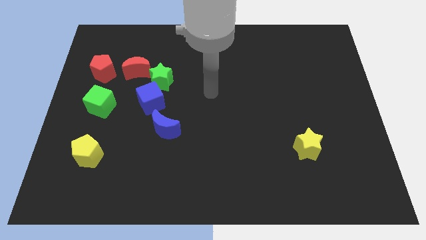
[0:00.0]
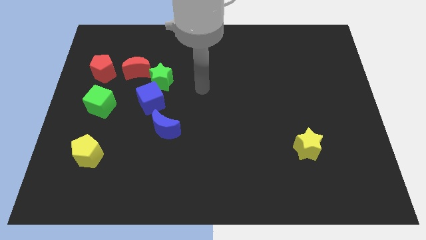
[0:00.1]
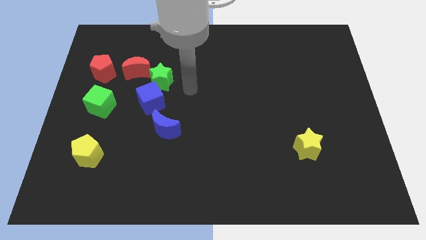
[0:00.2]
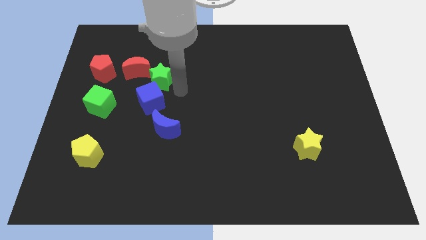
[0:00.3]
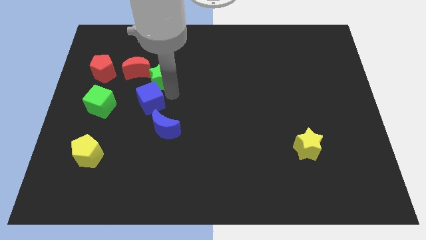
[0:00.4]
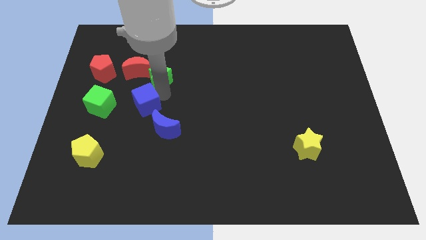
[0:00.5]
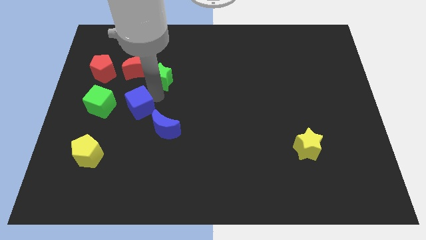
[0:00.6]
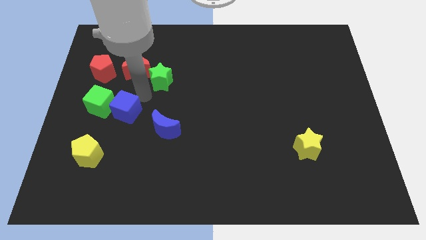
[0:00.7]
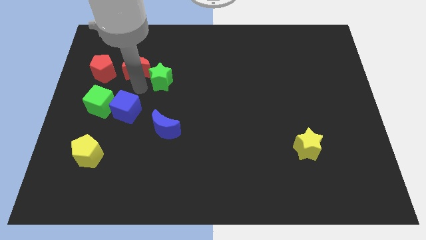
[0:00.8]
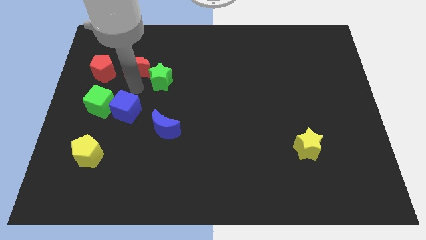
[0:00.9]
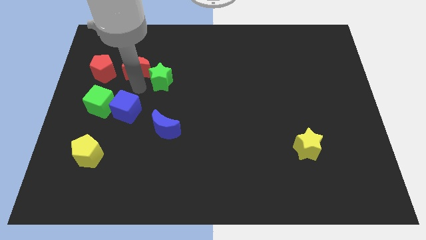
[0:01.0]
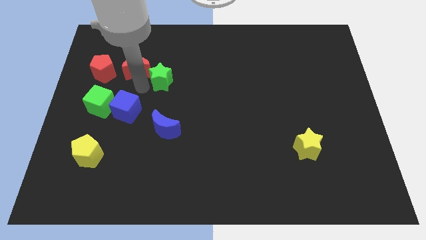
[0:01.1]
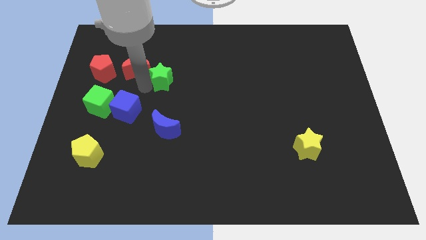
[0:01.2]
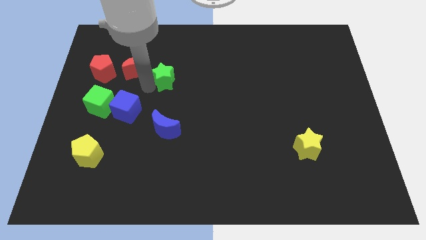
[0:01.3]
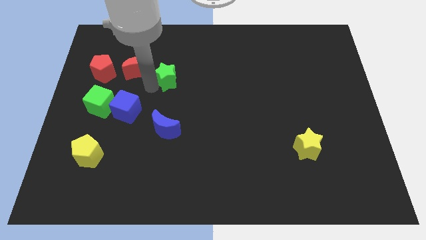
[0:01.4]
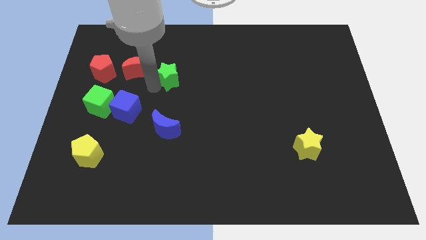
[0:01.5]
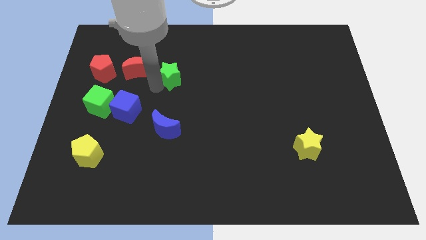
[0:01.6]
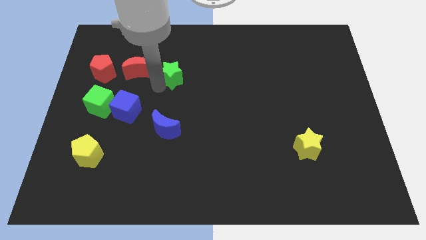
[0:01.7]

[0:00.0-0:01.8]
pull the green star apart from the blue cube and red moon

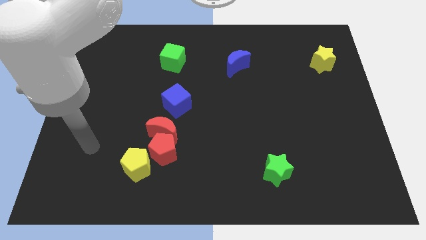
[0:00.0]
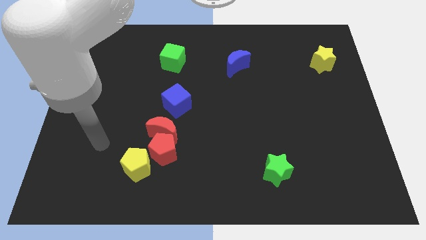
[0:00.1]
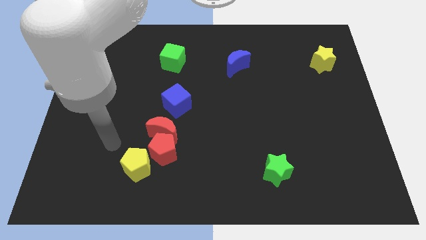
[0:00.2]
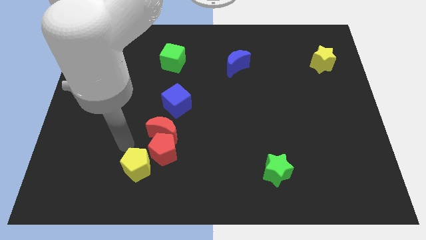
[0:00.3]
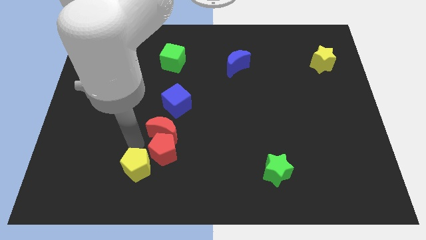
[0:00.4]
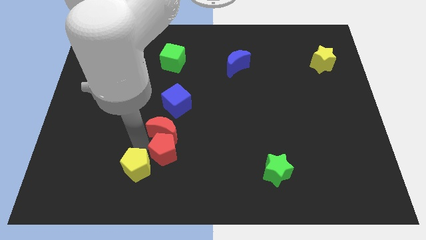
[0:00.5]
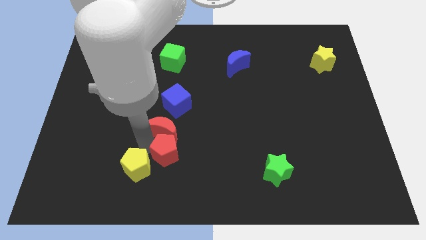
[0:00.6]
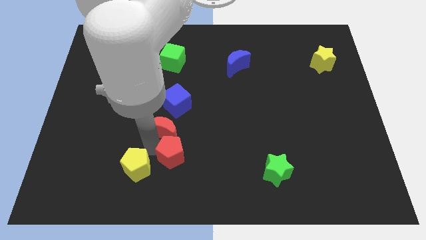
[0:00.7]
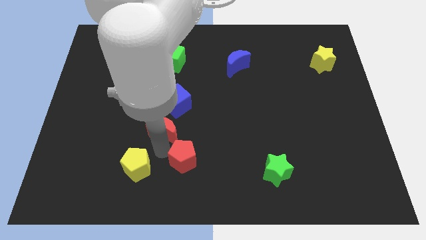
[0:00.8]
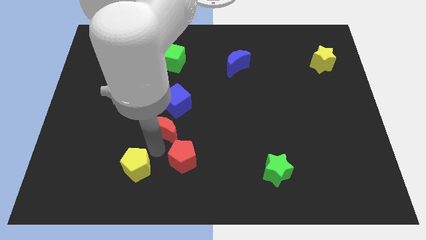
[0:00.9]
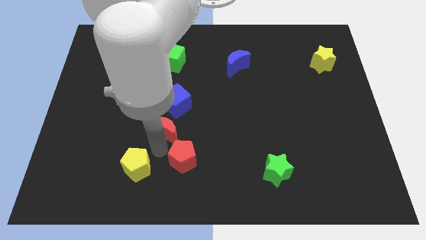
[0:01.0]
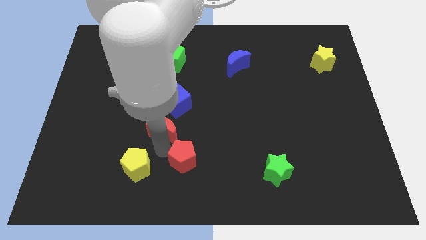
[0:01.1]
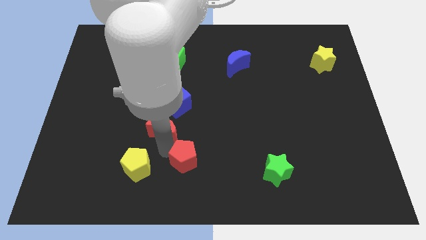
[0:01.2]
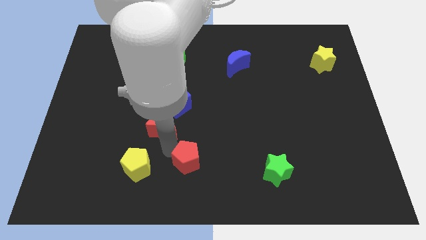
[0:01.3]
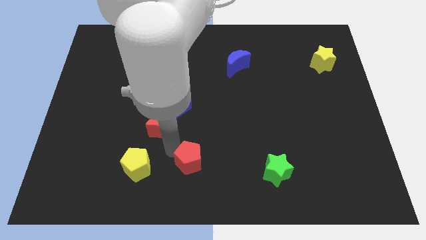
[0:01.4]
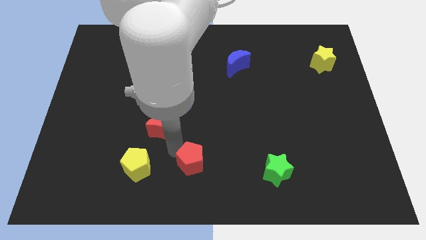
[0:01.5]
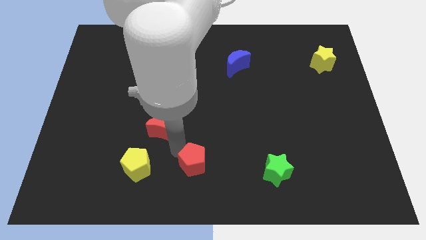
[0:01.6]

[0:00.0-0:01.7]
pull the red pentagon apart from the red moon and yellow pentagon

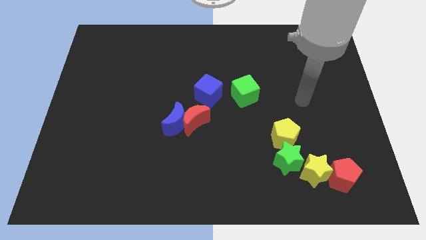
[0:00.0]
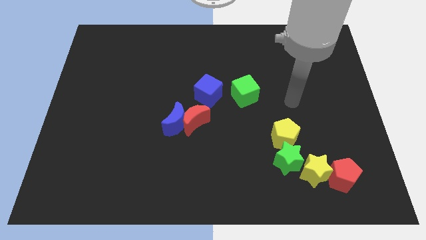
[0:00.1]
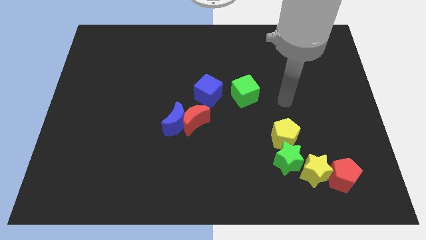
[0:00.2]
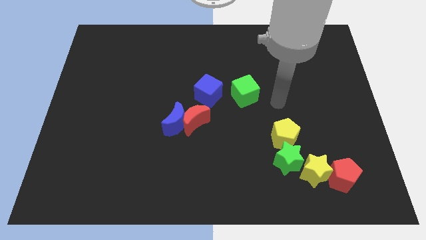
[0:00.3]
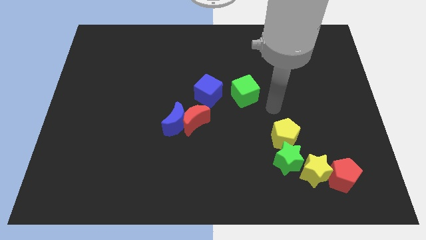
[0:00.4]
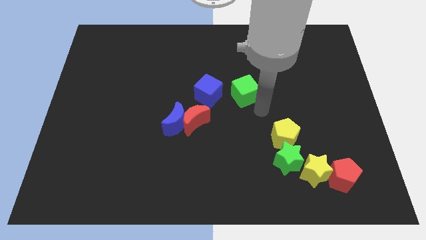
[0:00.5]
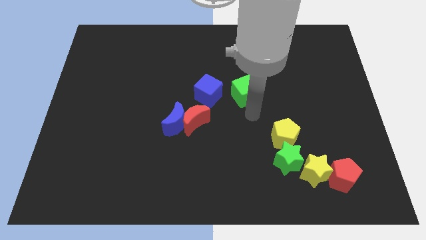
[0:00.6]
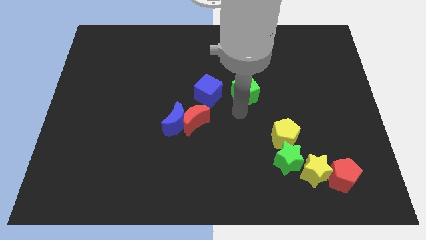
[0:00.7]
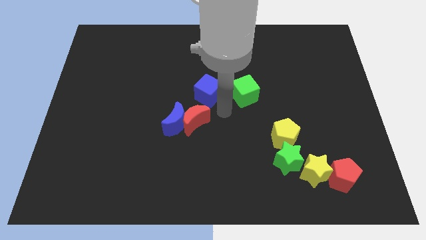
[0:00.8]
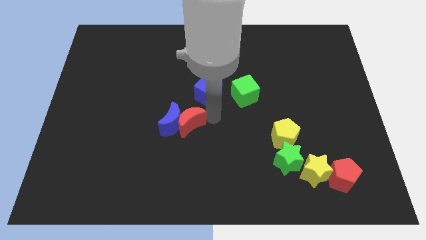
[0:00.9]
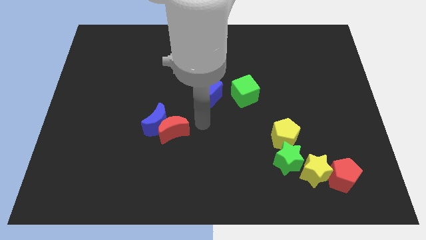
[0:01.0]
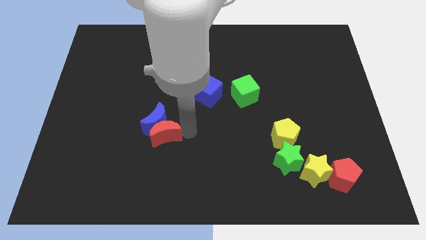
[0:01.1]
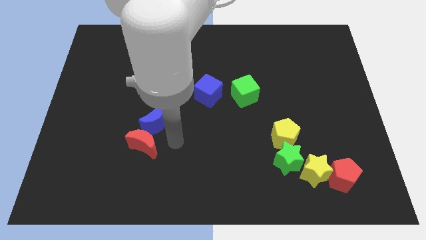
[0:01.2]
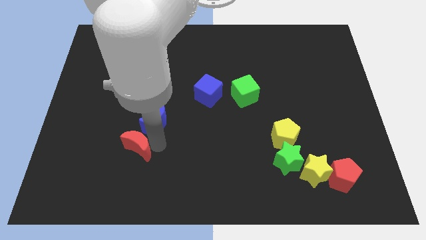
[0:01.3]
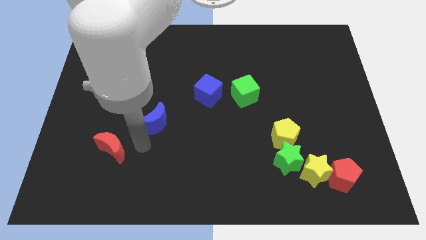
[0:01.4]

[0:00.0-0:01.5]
separate the blue moon from the red moon

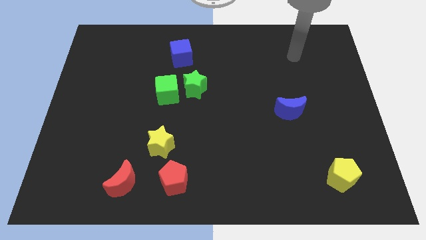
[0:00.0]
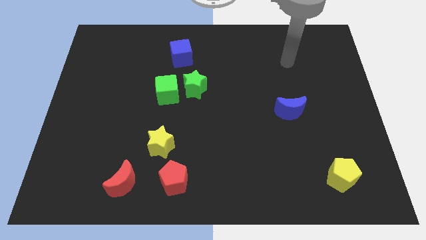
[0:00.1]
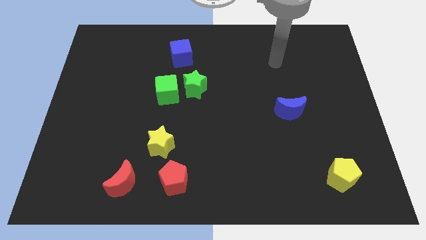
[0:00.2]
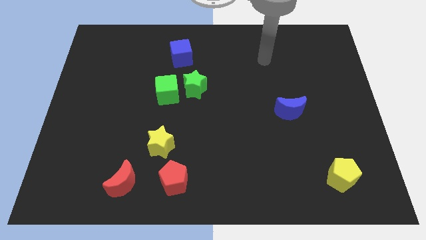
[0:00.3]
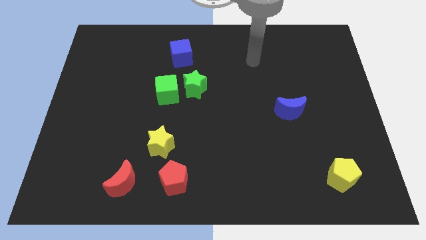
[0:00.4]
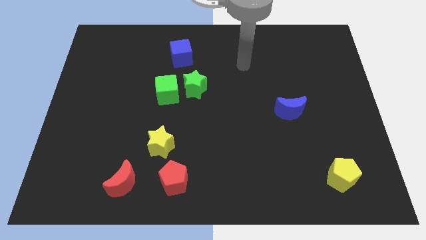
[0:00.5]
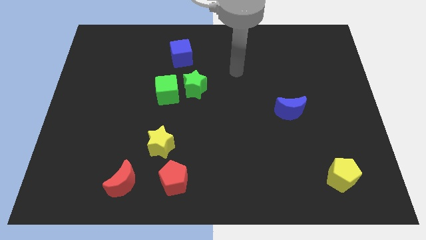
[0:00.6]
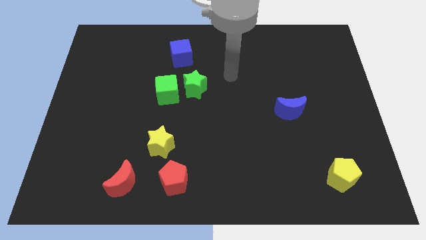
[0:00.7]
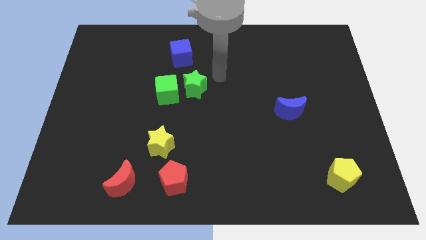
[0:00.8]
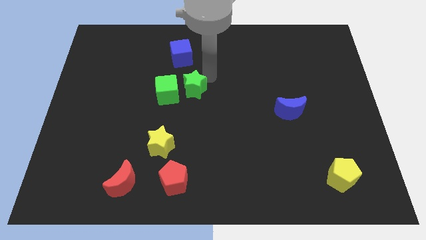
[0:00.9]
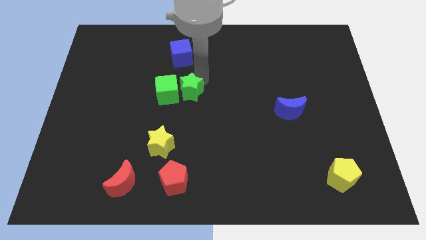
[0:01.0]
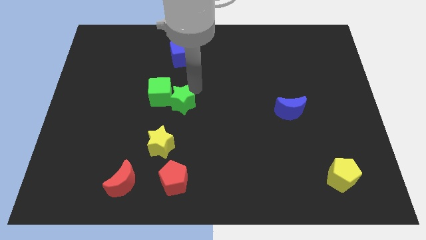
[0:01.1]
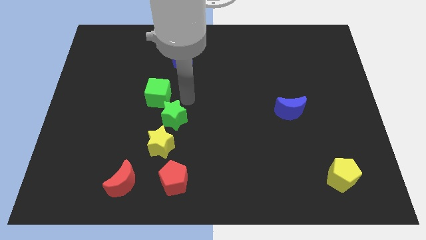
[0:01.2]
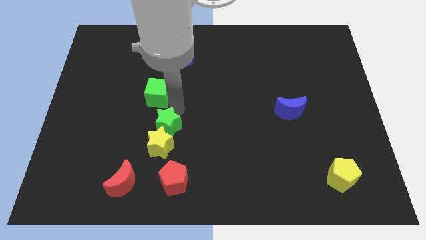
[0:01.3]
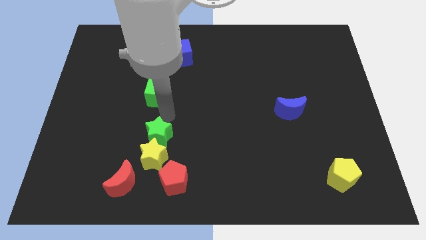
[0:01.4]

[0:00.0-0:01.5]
pull the green cube apart from the green star

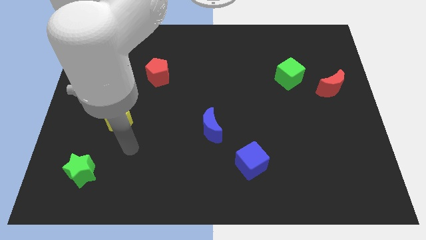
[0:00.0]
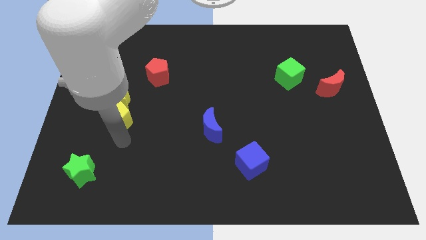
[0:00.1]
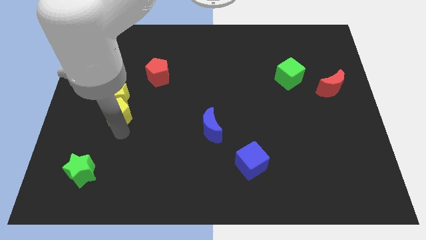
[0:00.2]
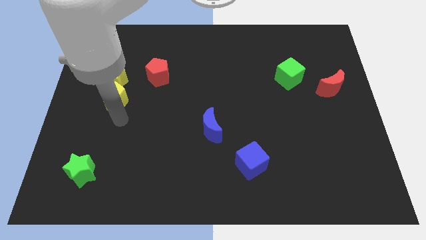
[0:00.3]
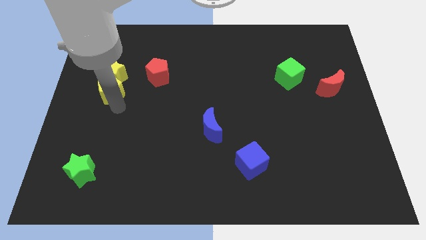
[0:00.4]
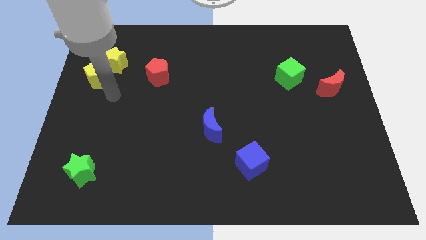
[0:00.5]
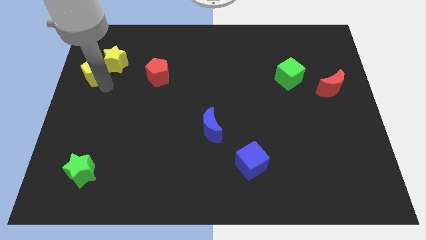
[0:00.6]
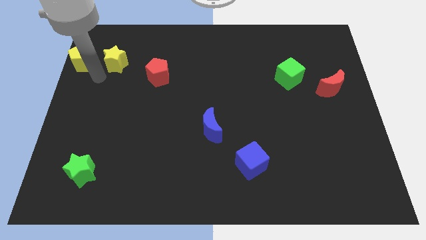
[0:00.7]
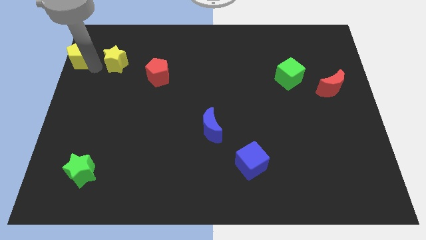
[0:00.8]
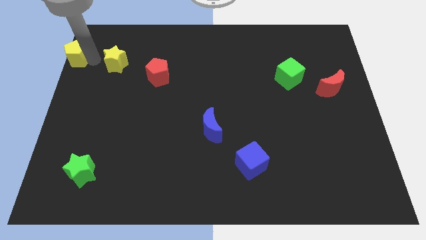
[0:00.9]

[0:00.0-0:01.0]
move the yellow star away from the yellow pentagon

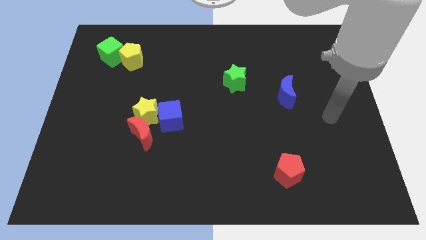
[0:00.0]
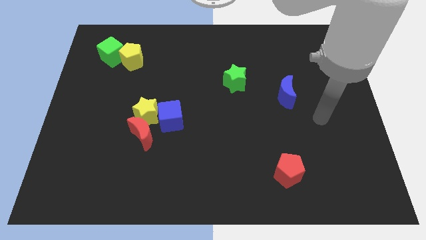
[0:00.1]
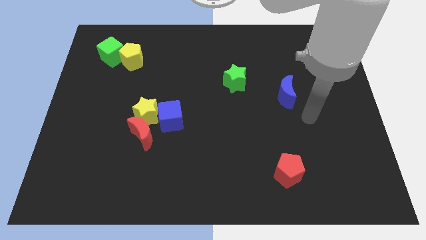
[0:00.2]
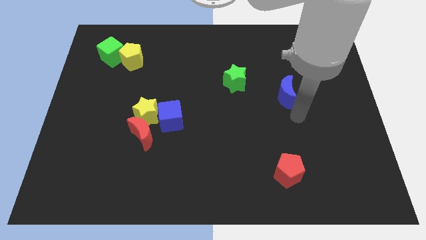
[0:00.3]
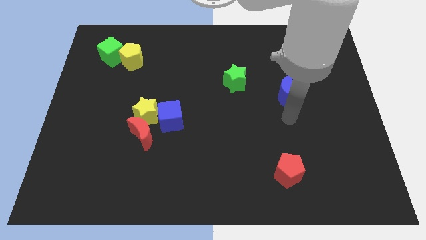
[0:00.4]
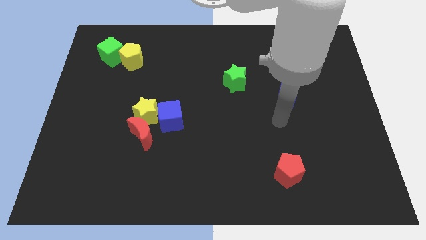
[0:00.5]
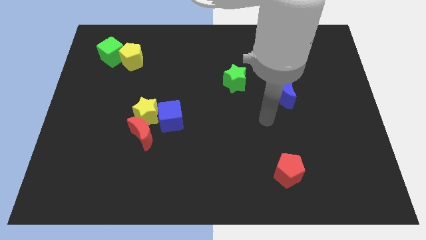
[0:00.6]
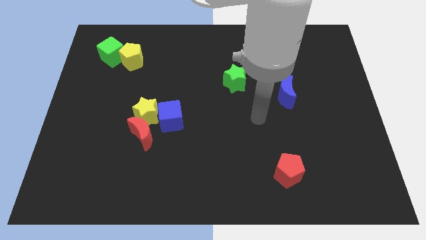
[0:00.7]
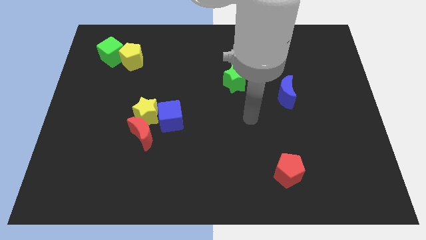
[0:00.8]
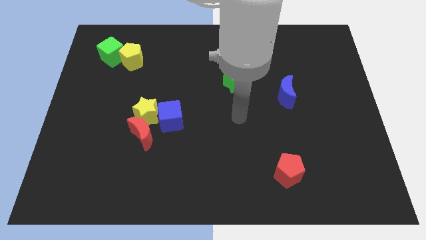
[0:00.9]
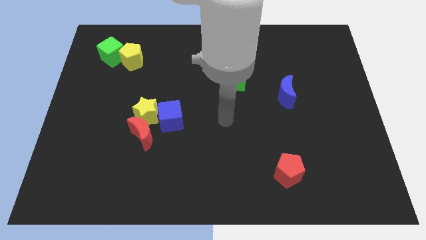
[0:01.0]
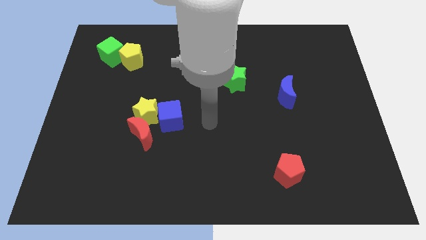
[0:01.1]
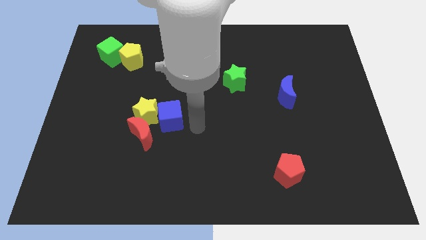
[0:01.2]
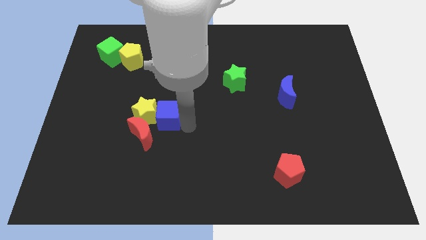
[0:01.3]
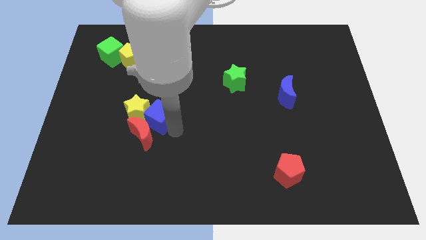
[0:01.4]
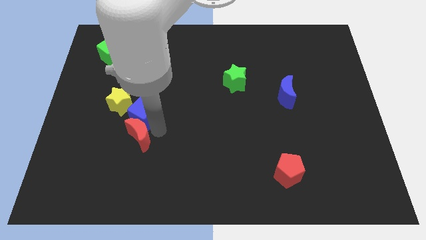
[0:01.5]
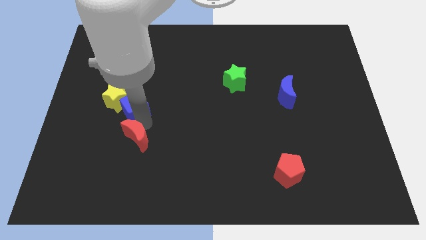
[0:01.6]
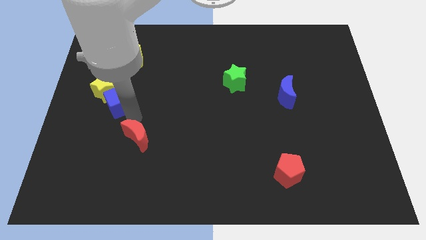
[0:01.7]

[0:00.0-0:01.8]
pull the yellow star apart from the red moon and blue cube
